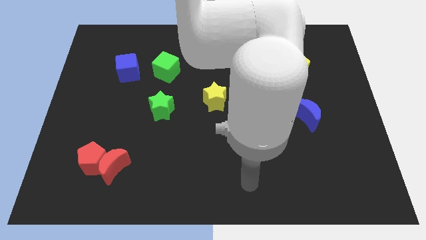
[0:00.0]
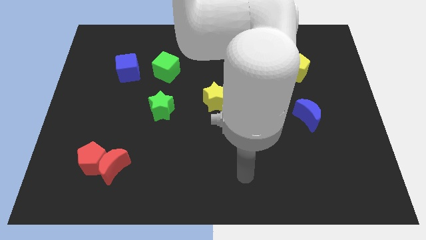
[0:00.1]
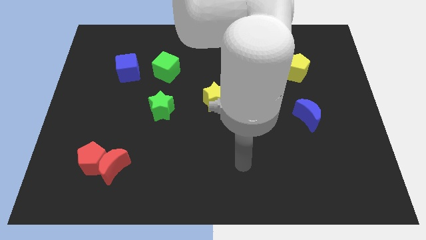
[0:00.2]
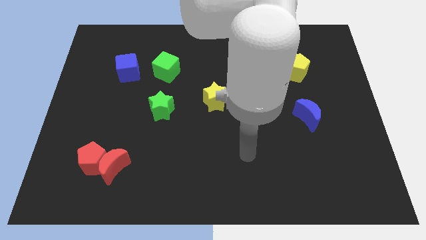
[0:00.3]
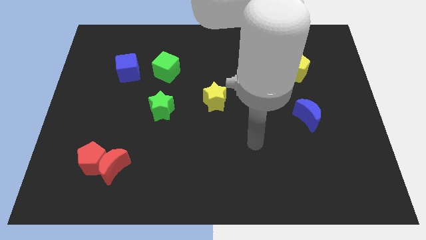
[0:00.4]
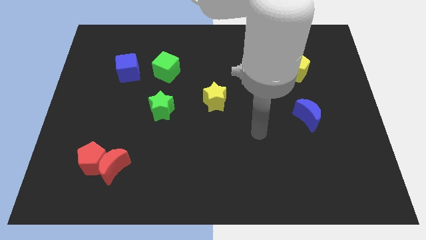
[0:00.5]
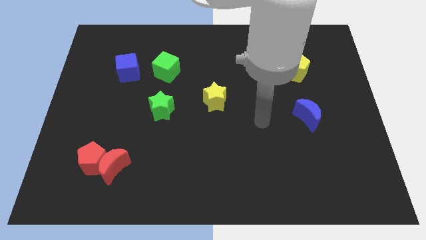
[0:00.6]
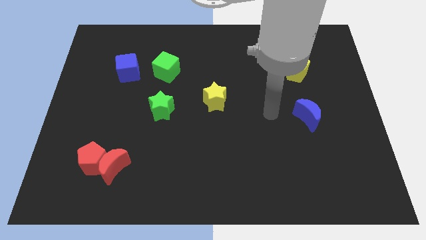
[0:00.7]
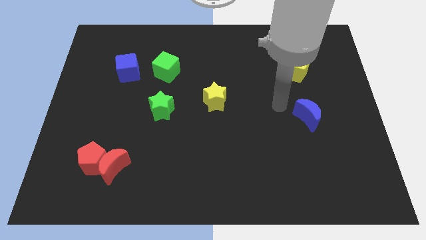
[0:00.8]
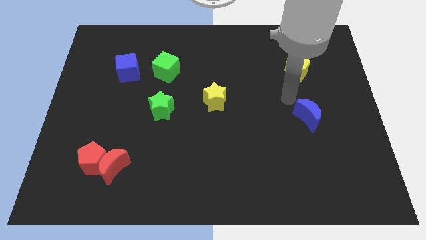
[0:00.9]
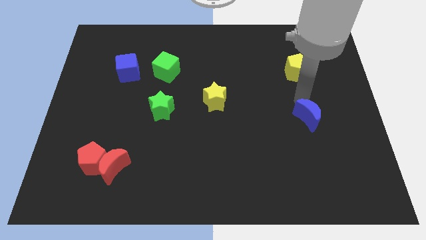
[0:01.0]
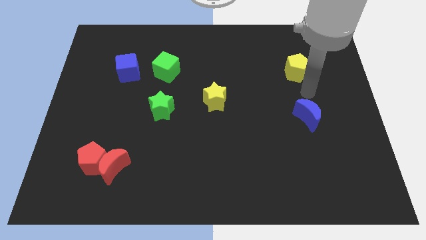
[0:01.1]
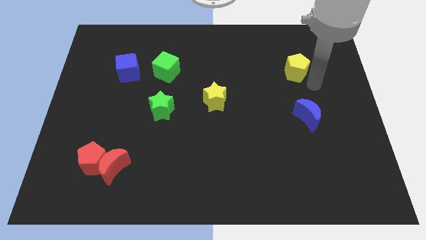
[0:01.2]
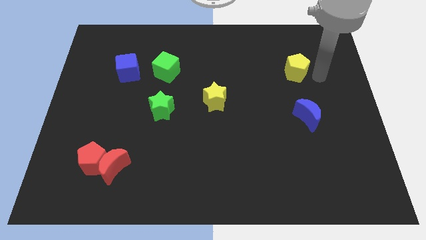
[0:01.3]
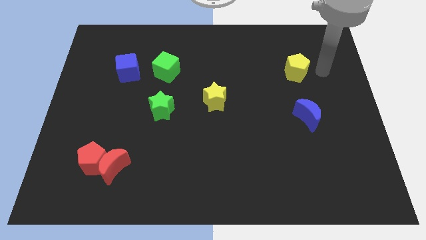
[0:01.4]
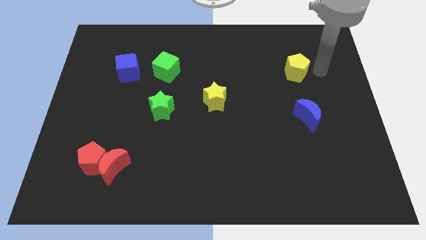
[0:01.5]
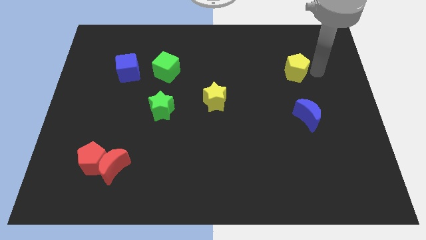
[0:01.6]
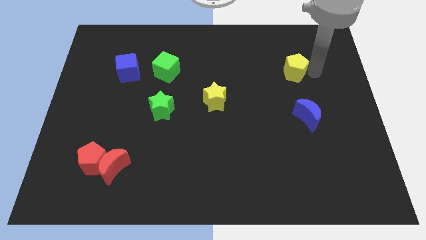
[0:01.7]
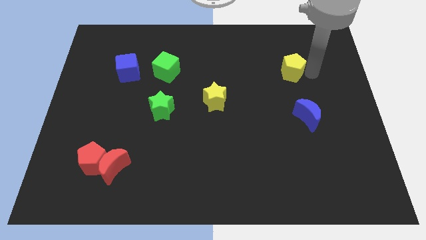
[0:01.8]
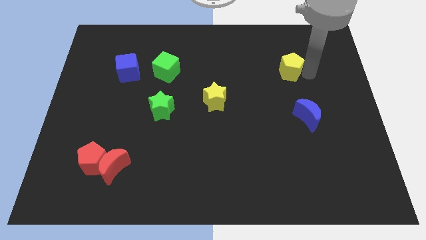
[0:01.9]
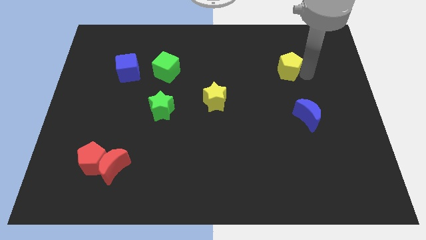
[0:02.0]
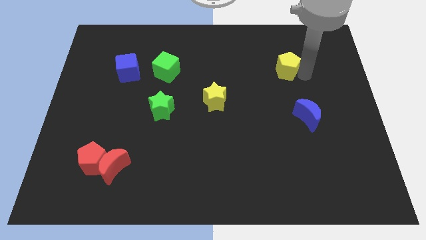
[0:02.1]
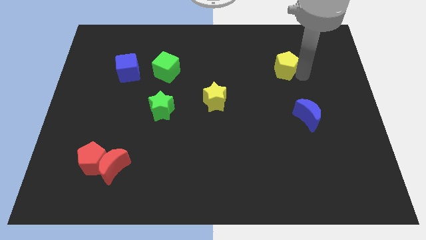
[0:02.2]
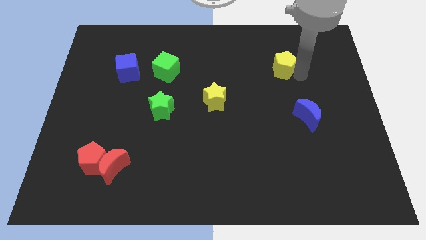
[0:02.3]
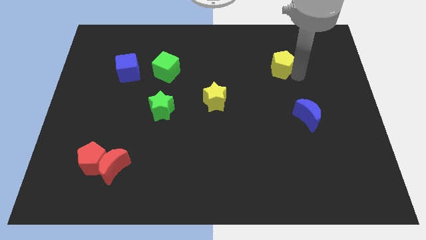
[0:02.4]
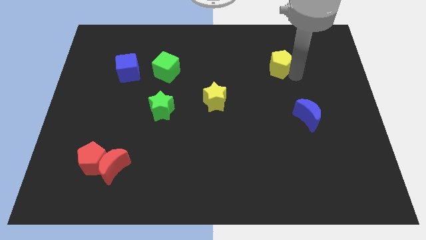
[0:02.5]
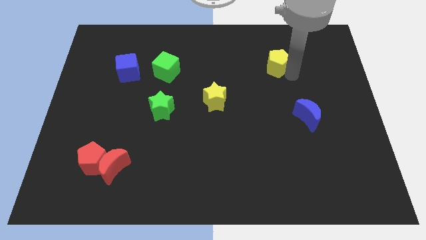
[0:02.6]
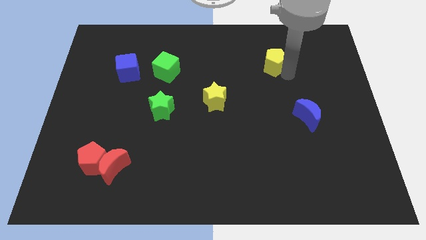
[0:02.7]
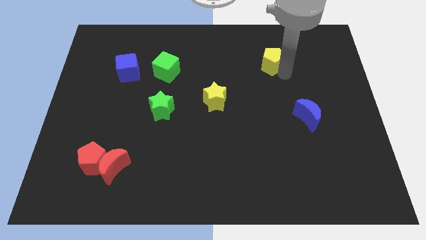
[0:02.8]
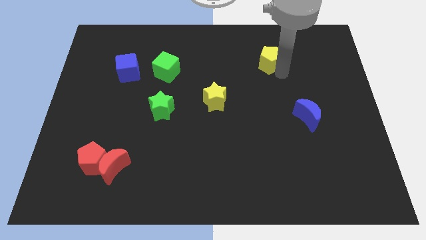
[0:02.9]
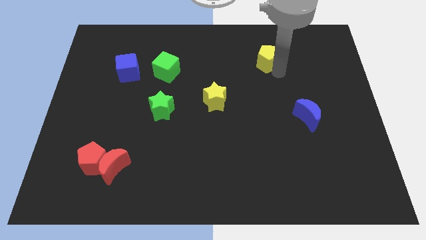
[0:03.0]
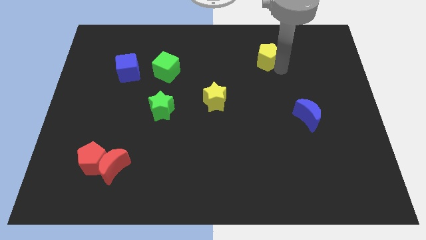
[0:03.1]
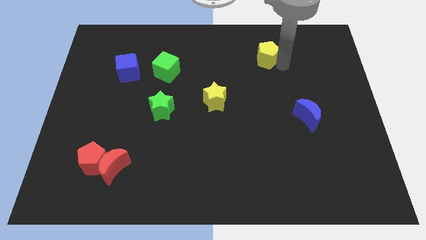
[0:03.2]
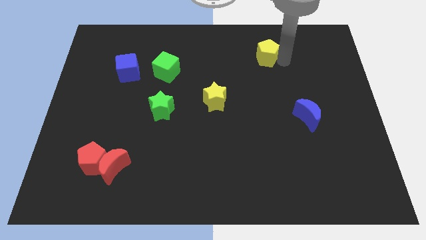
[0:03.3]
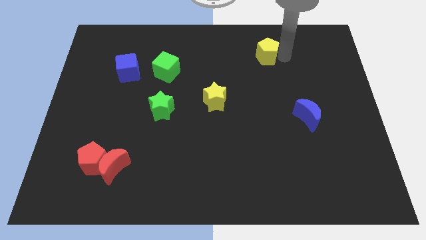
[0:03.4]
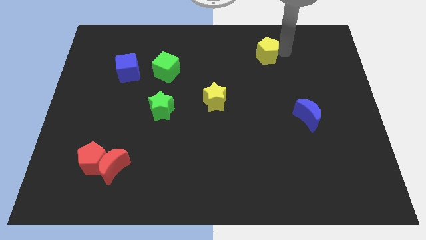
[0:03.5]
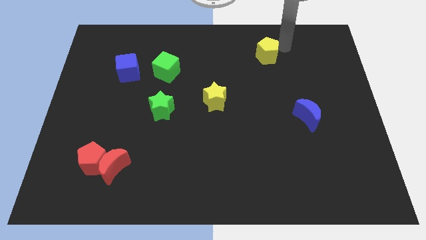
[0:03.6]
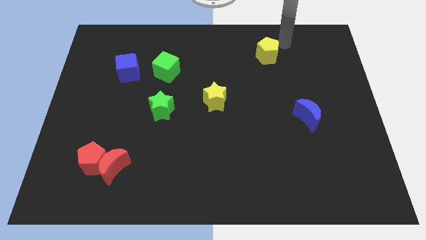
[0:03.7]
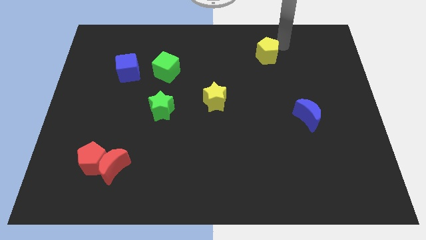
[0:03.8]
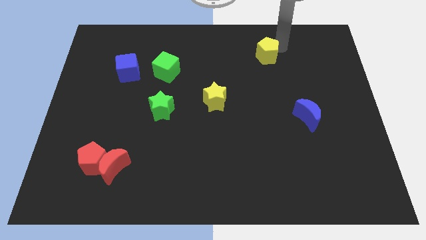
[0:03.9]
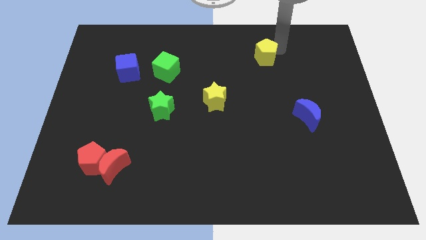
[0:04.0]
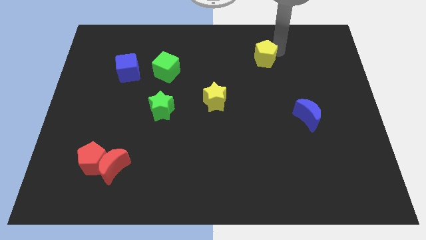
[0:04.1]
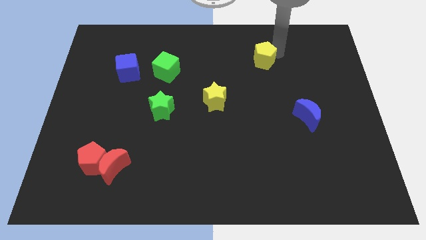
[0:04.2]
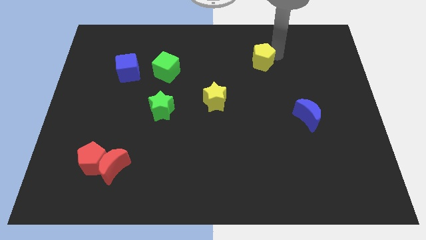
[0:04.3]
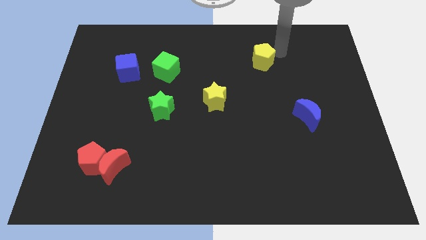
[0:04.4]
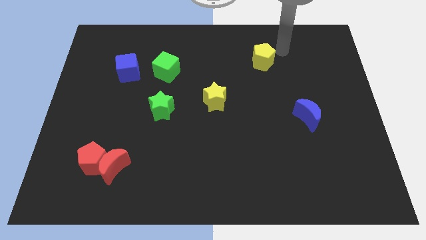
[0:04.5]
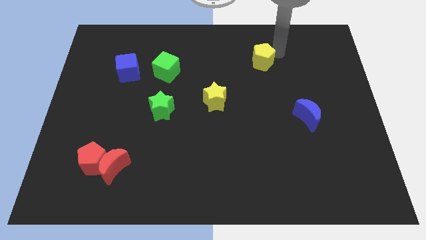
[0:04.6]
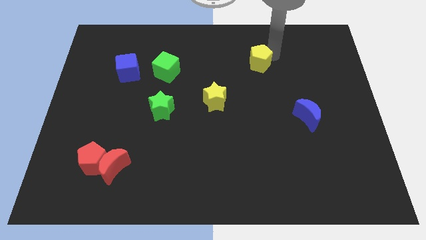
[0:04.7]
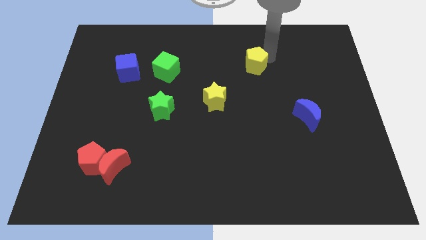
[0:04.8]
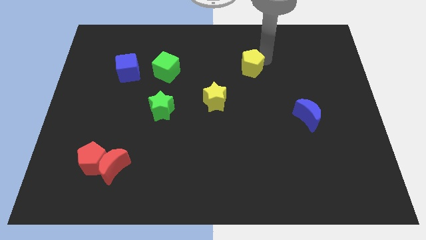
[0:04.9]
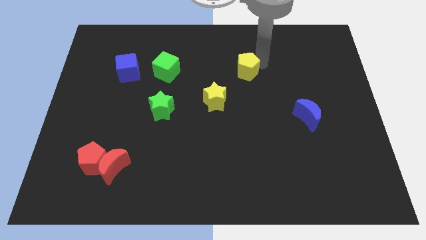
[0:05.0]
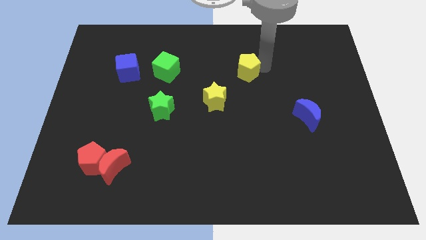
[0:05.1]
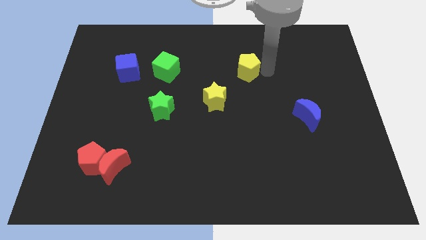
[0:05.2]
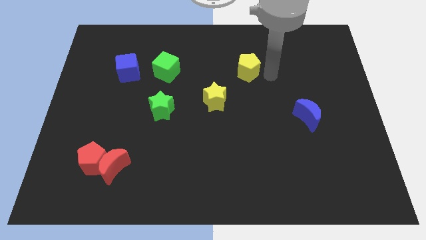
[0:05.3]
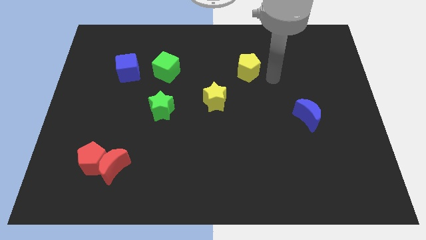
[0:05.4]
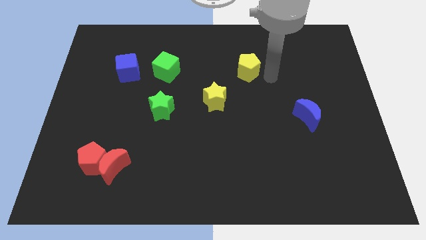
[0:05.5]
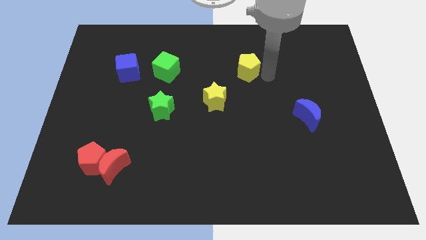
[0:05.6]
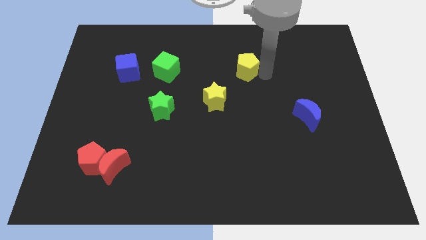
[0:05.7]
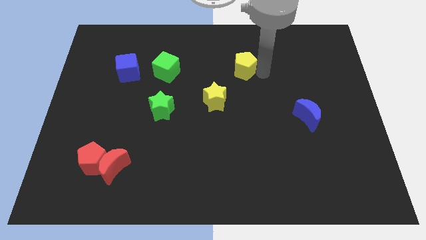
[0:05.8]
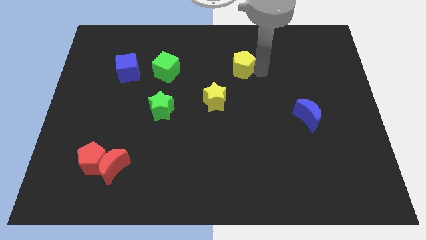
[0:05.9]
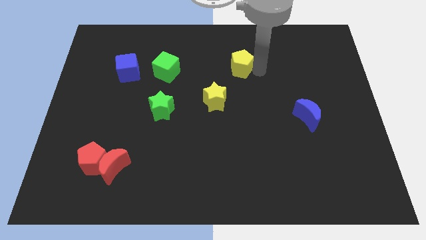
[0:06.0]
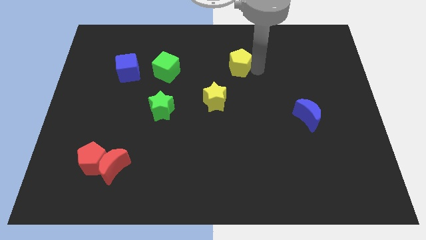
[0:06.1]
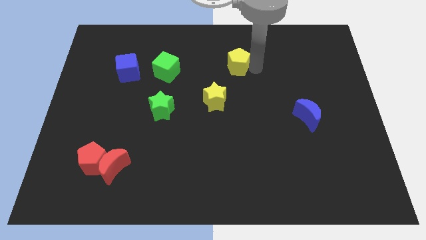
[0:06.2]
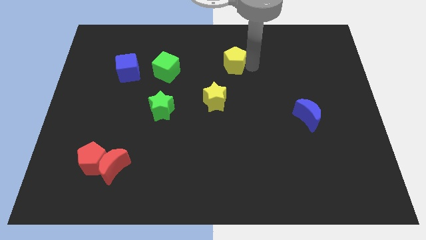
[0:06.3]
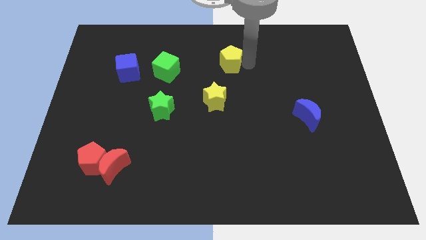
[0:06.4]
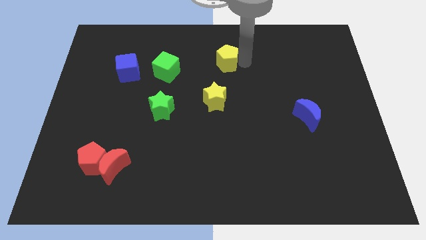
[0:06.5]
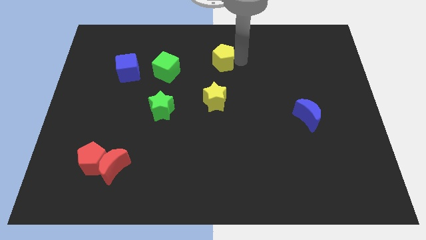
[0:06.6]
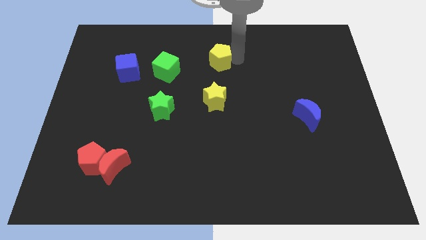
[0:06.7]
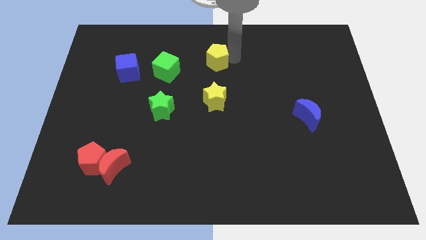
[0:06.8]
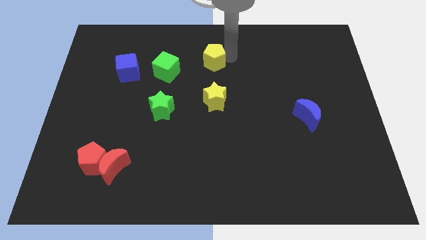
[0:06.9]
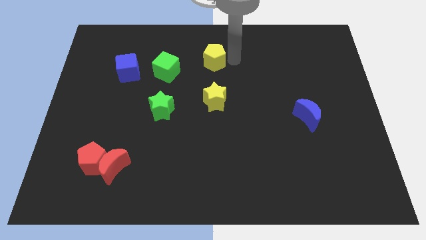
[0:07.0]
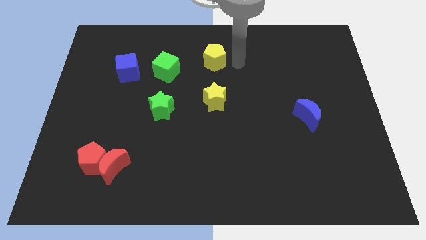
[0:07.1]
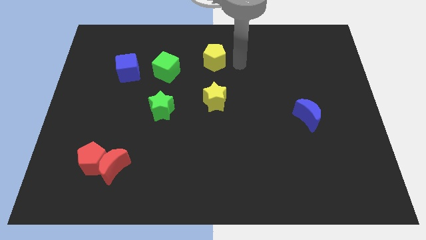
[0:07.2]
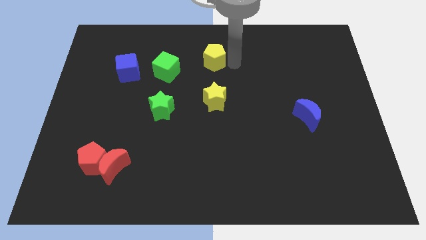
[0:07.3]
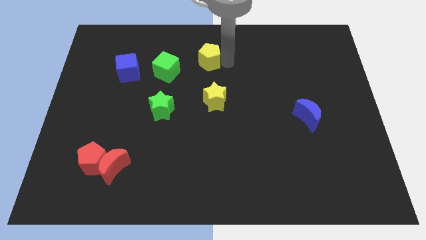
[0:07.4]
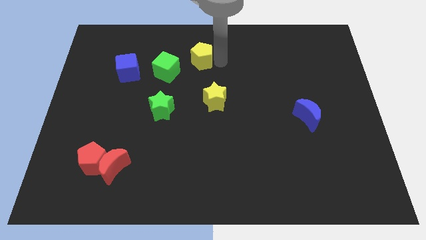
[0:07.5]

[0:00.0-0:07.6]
slide the yellow pentagon to the top right of the green cube
